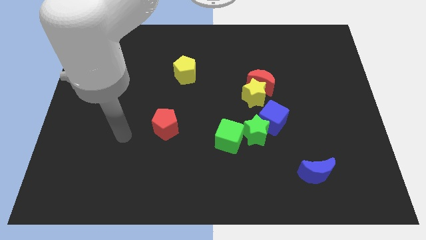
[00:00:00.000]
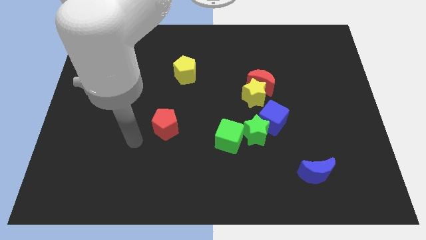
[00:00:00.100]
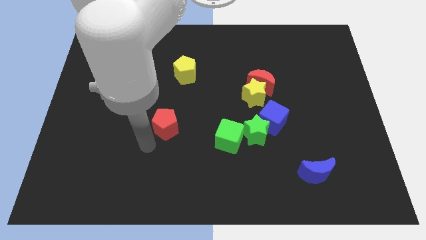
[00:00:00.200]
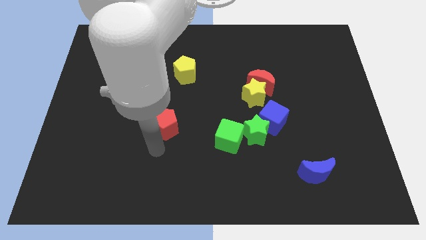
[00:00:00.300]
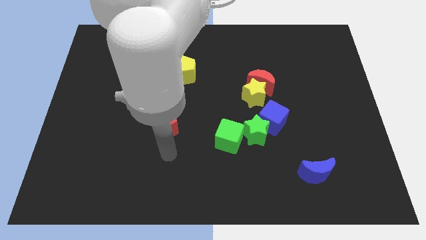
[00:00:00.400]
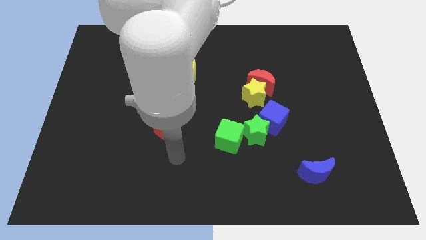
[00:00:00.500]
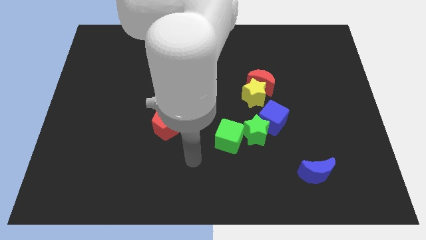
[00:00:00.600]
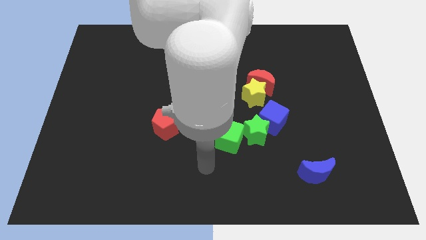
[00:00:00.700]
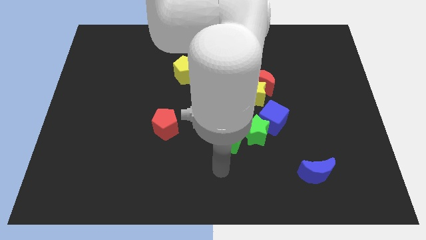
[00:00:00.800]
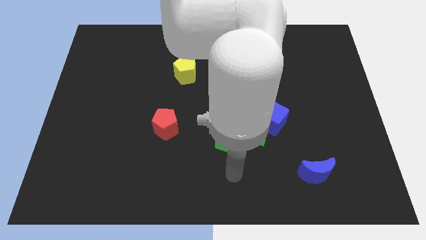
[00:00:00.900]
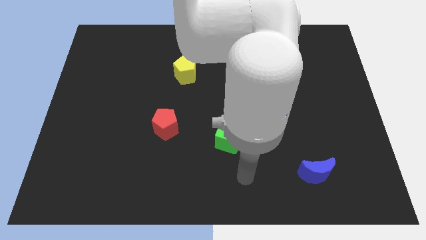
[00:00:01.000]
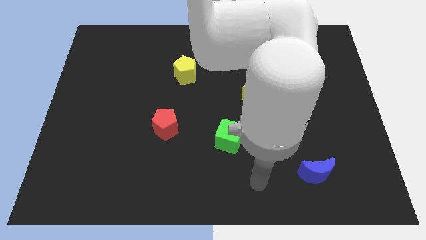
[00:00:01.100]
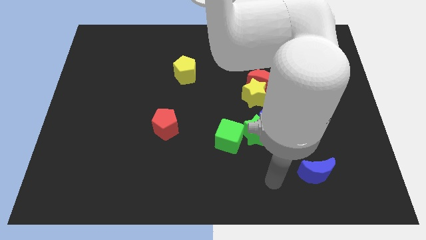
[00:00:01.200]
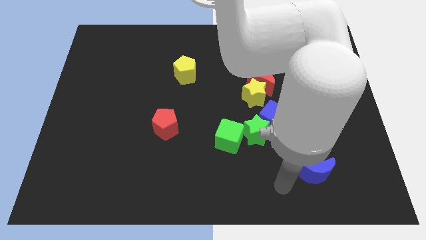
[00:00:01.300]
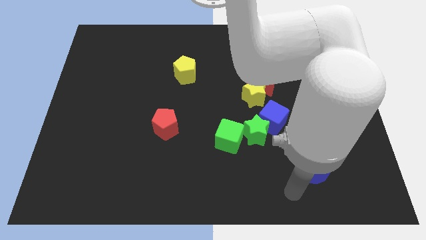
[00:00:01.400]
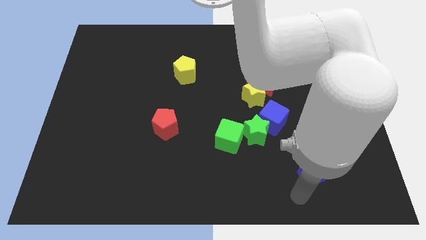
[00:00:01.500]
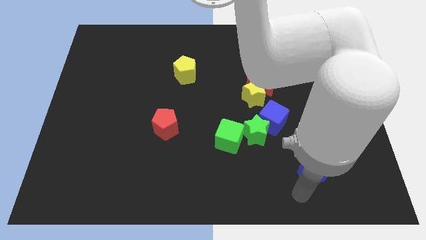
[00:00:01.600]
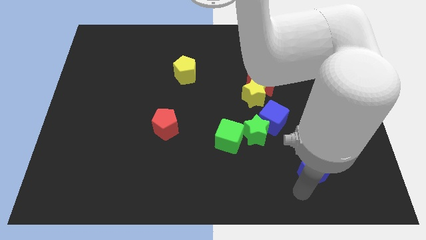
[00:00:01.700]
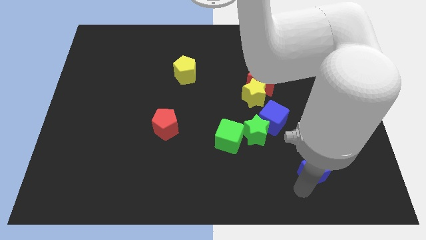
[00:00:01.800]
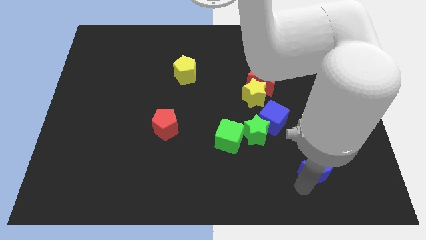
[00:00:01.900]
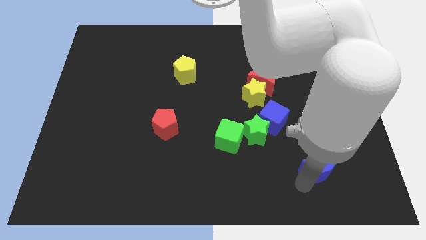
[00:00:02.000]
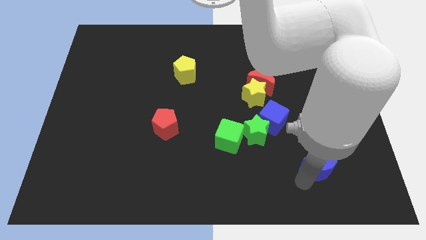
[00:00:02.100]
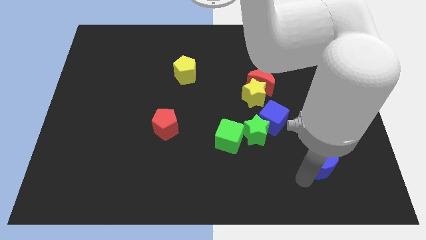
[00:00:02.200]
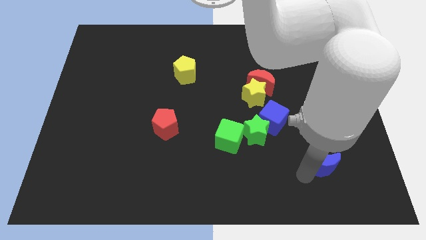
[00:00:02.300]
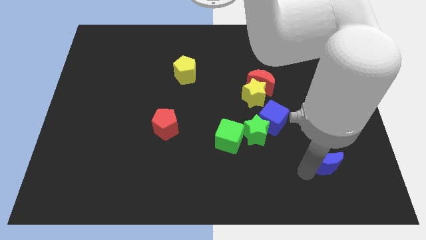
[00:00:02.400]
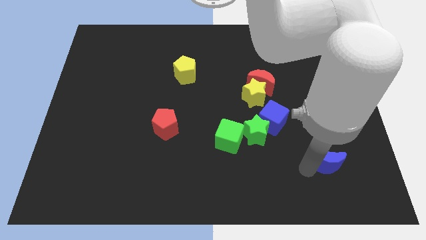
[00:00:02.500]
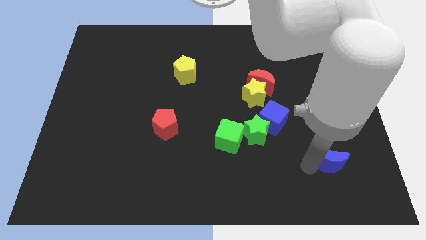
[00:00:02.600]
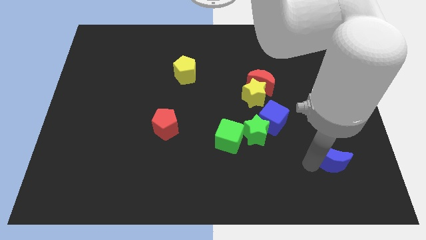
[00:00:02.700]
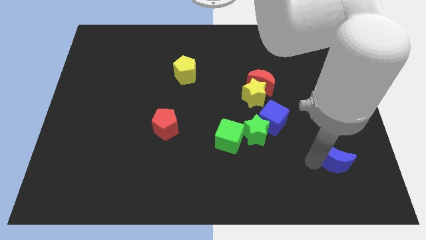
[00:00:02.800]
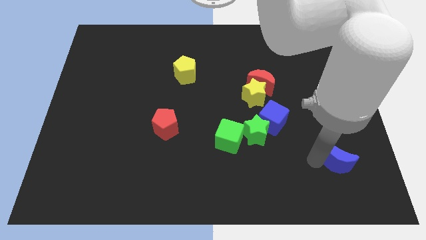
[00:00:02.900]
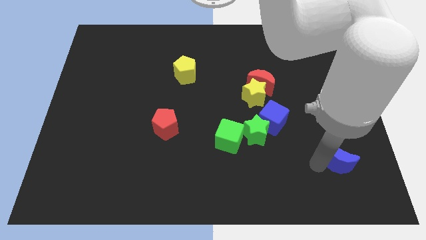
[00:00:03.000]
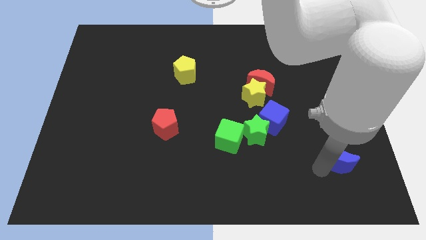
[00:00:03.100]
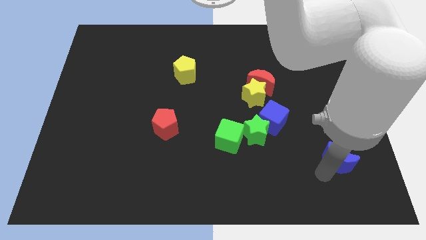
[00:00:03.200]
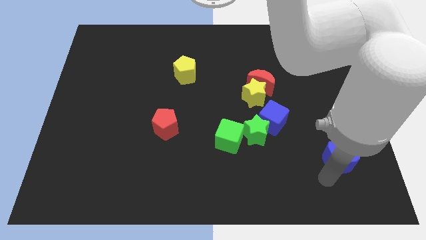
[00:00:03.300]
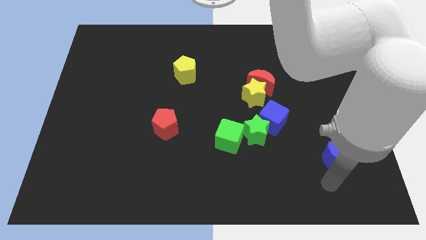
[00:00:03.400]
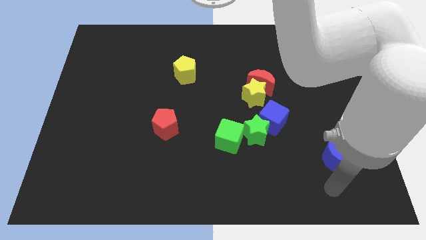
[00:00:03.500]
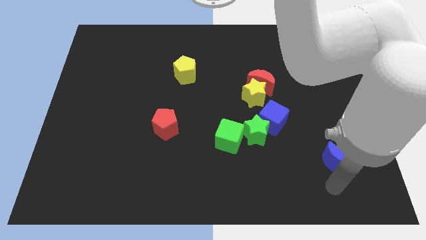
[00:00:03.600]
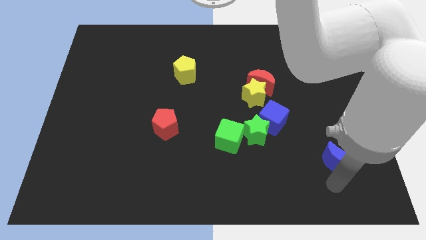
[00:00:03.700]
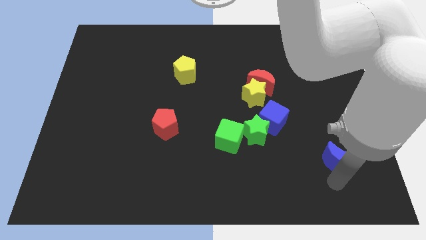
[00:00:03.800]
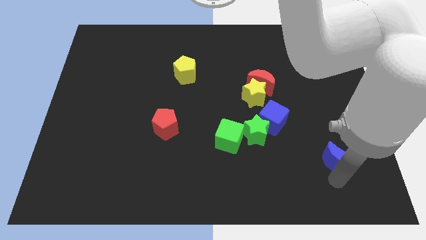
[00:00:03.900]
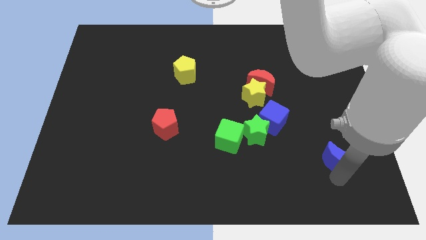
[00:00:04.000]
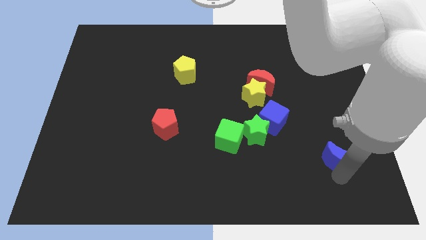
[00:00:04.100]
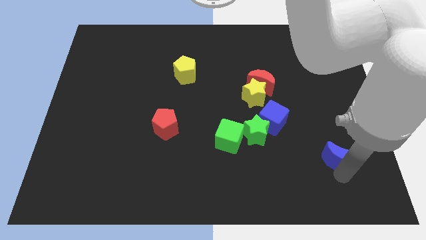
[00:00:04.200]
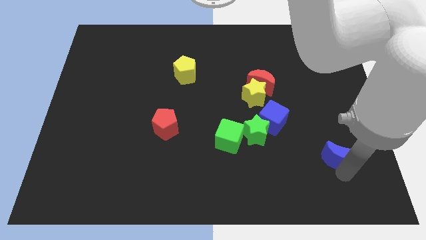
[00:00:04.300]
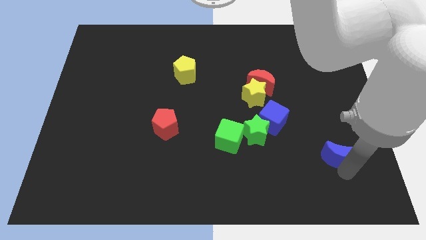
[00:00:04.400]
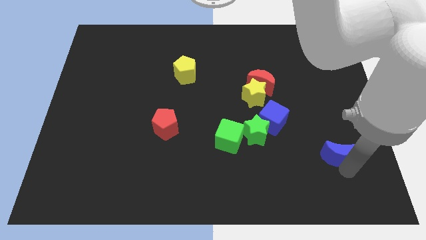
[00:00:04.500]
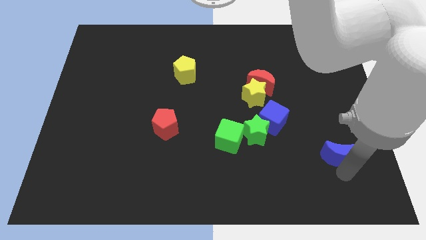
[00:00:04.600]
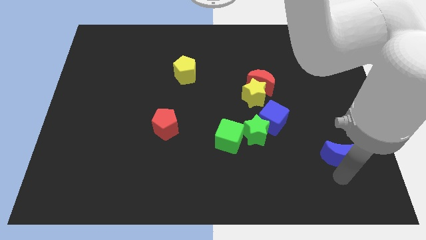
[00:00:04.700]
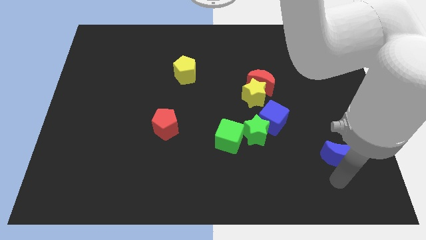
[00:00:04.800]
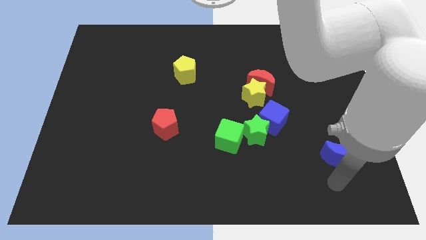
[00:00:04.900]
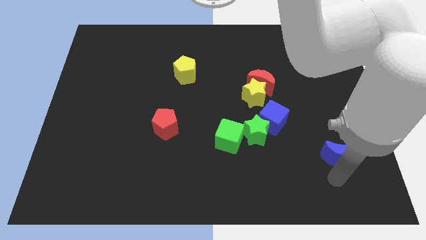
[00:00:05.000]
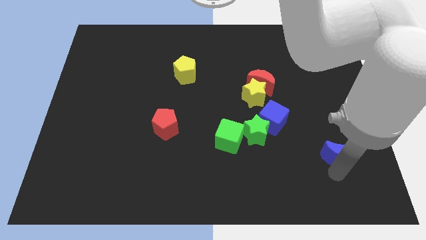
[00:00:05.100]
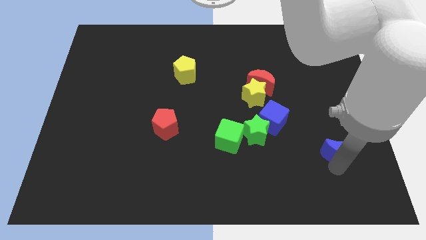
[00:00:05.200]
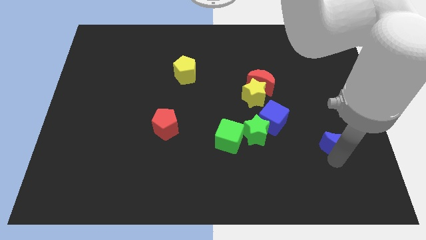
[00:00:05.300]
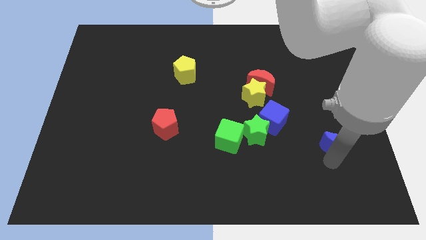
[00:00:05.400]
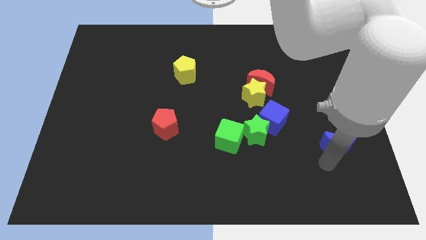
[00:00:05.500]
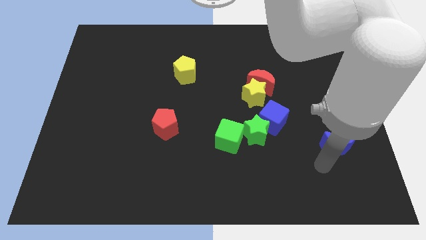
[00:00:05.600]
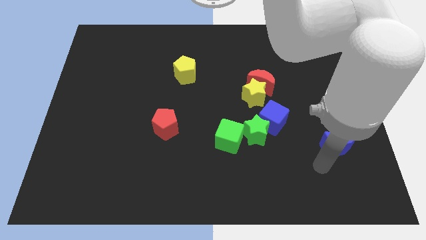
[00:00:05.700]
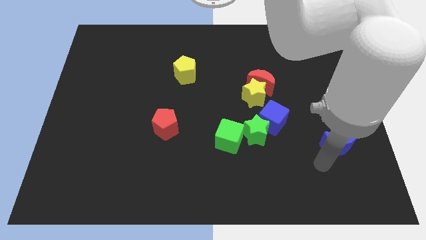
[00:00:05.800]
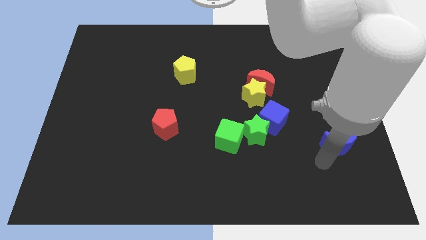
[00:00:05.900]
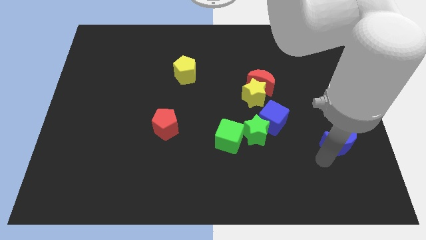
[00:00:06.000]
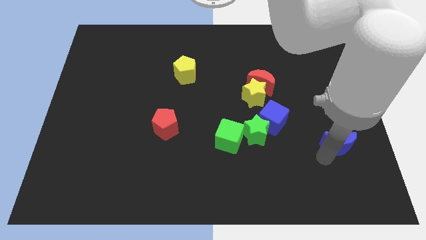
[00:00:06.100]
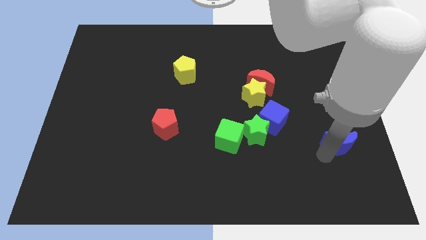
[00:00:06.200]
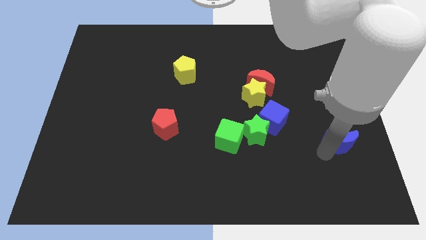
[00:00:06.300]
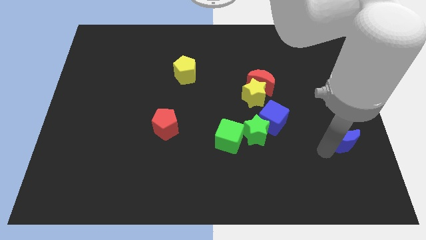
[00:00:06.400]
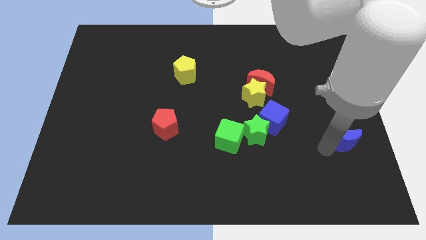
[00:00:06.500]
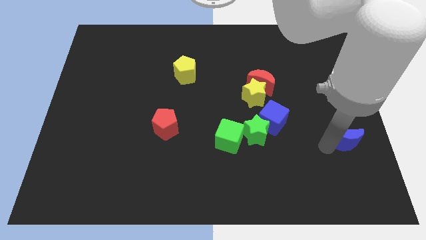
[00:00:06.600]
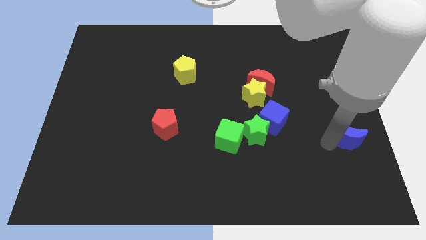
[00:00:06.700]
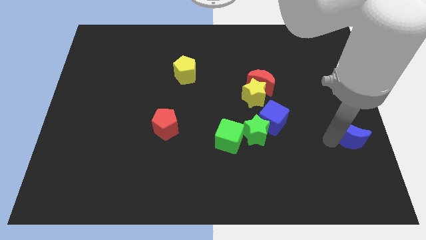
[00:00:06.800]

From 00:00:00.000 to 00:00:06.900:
push the blue moon to the right side
